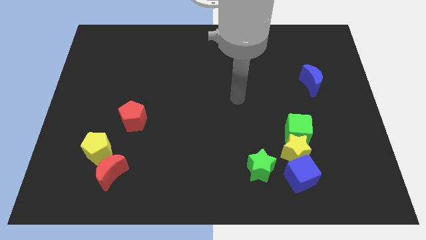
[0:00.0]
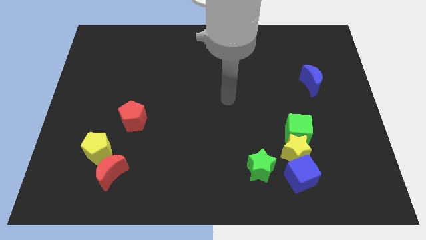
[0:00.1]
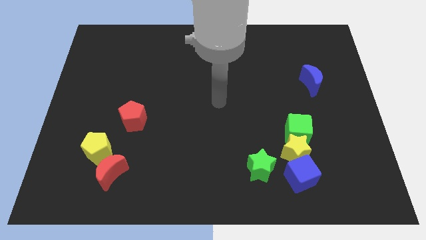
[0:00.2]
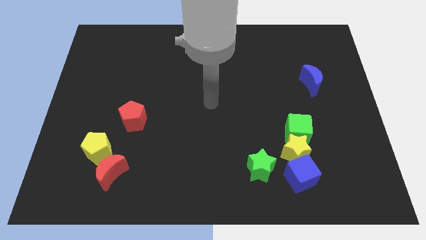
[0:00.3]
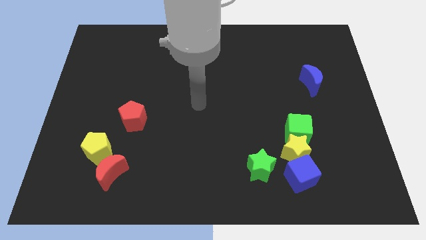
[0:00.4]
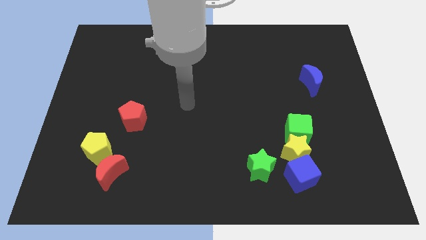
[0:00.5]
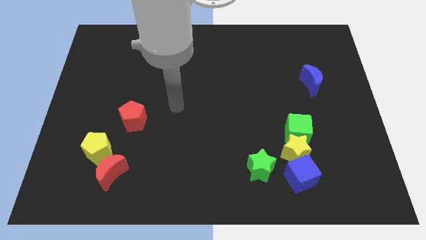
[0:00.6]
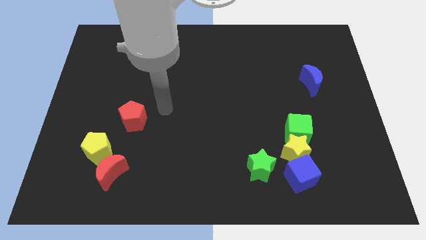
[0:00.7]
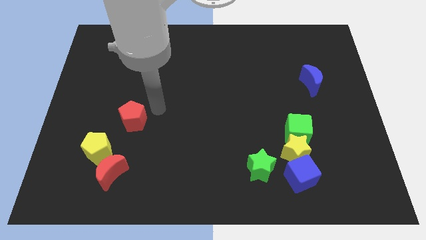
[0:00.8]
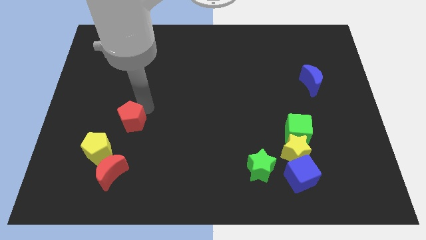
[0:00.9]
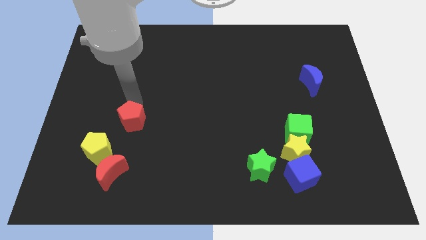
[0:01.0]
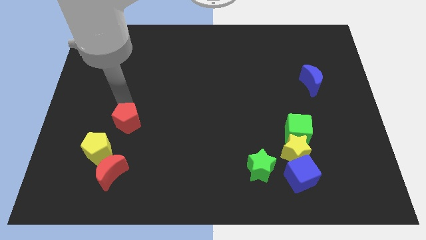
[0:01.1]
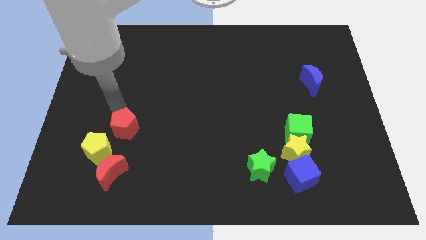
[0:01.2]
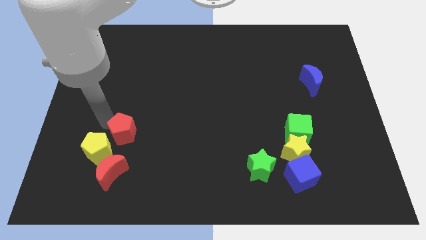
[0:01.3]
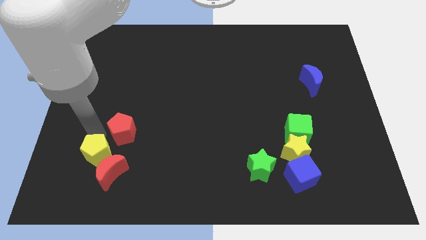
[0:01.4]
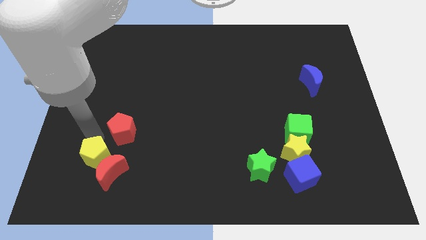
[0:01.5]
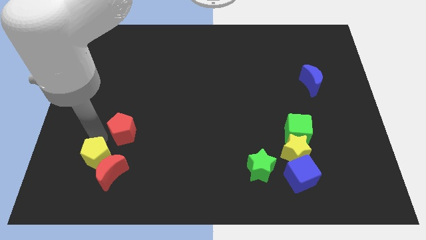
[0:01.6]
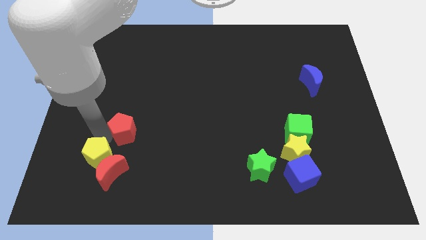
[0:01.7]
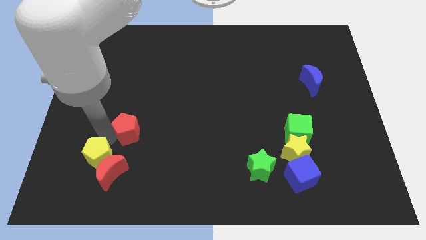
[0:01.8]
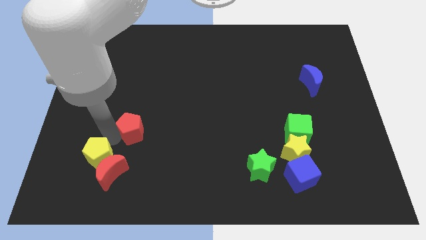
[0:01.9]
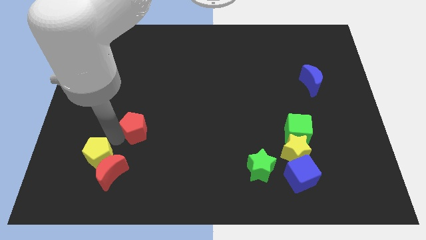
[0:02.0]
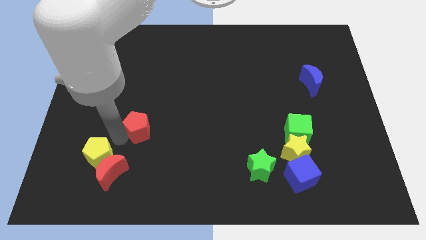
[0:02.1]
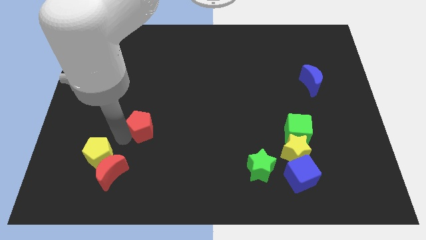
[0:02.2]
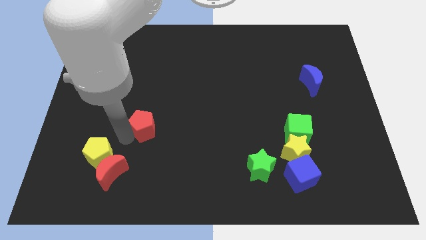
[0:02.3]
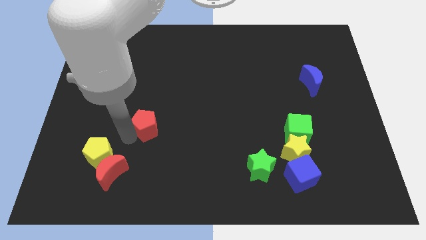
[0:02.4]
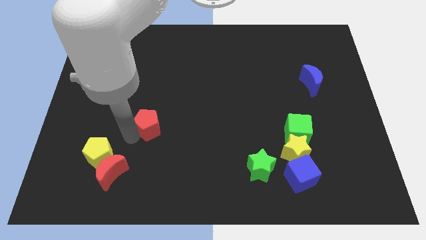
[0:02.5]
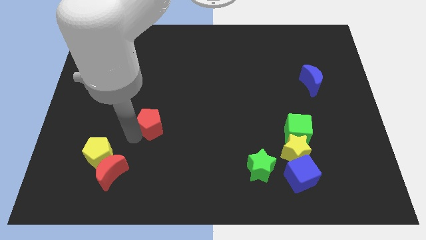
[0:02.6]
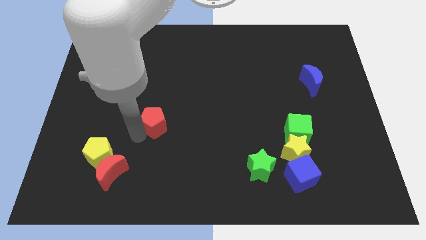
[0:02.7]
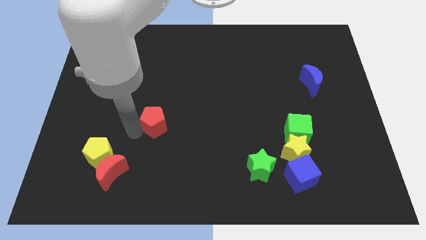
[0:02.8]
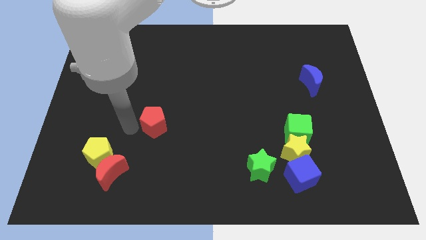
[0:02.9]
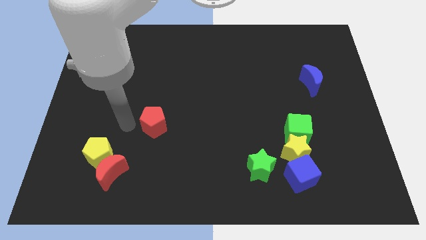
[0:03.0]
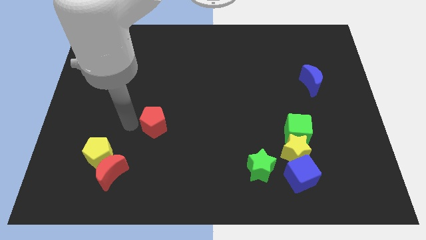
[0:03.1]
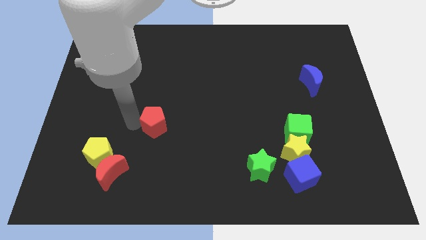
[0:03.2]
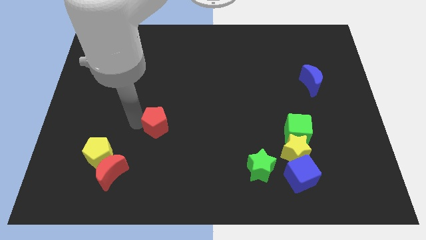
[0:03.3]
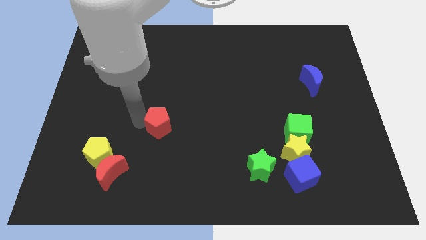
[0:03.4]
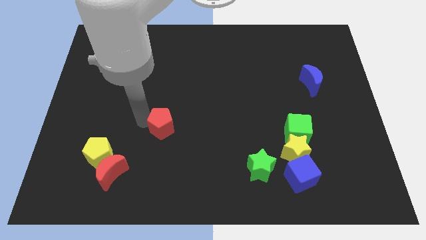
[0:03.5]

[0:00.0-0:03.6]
slide the red pentagon right somewhat

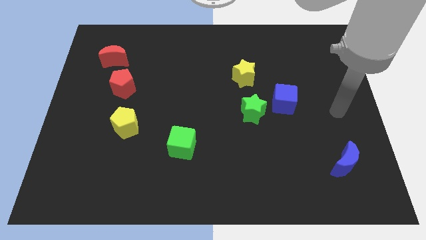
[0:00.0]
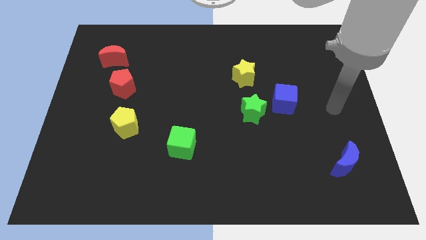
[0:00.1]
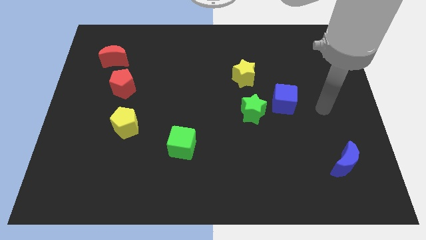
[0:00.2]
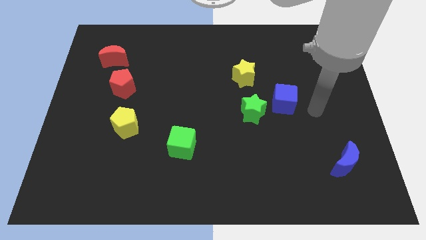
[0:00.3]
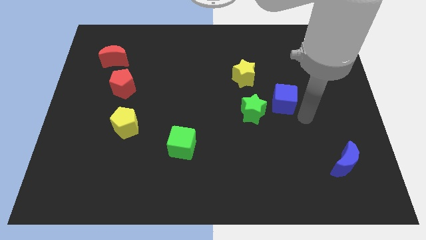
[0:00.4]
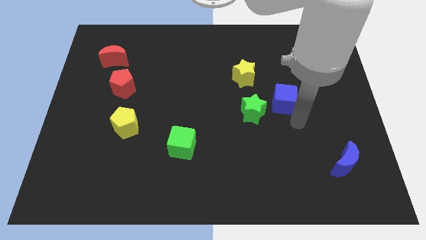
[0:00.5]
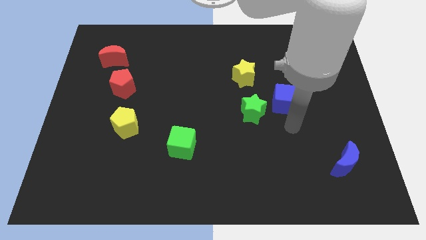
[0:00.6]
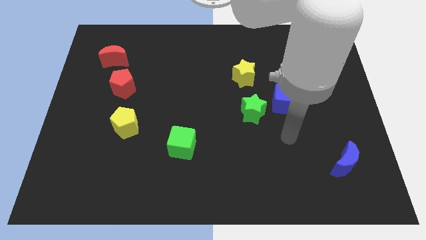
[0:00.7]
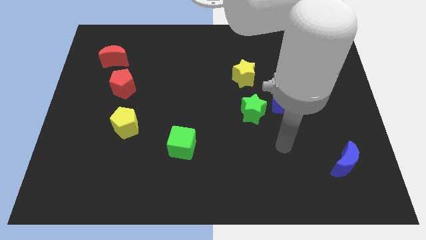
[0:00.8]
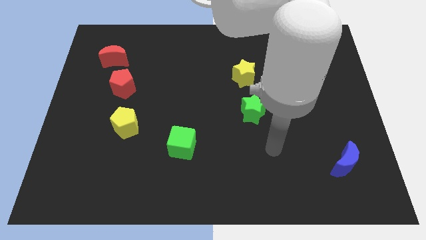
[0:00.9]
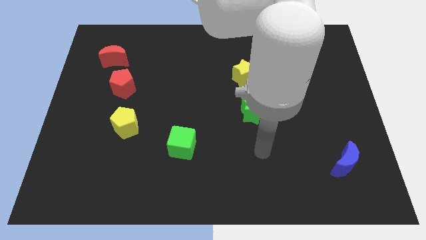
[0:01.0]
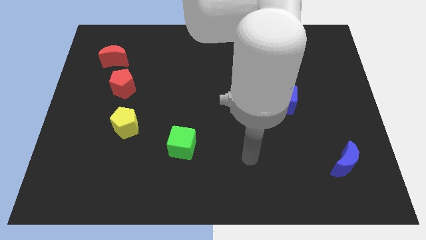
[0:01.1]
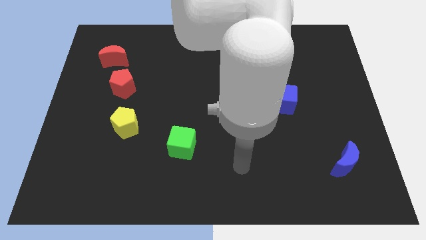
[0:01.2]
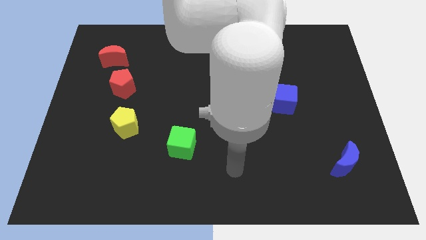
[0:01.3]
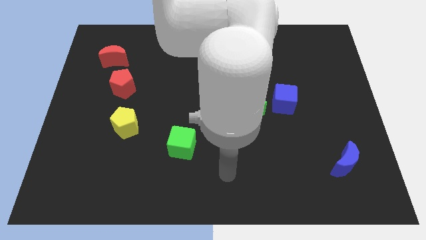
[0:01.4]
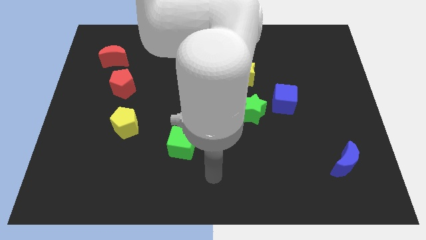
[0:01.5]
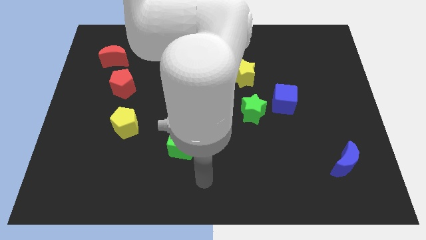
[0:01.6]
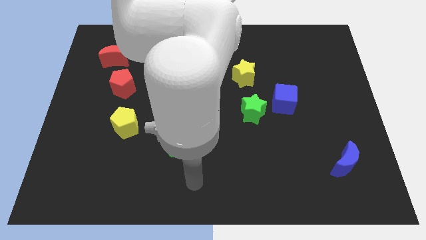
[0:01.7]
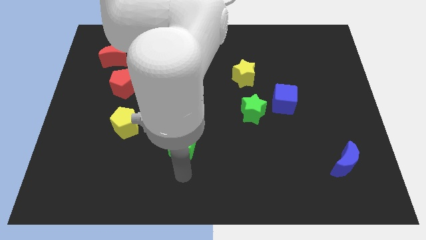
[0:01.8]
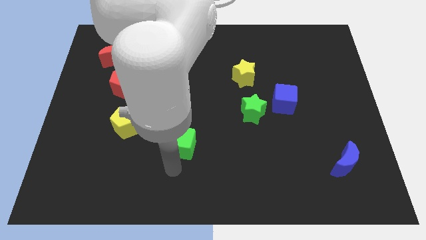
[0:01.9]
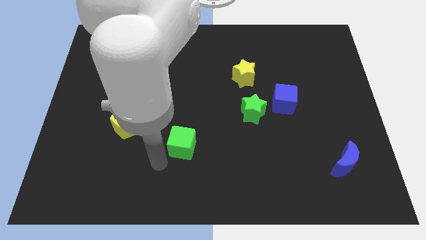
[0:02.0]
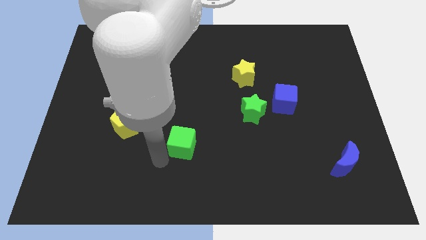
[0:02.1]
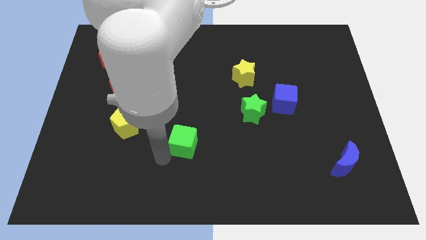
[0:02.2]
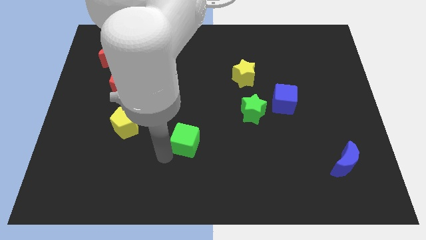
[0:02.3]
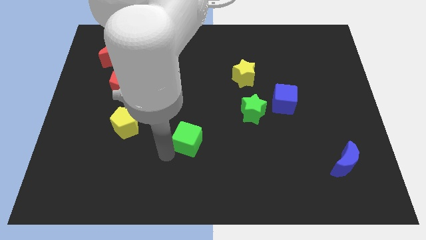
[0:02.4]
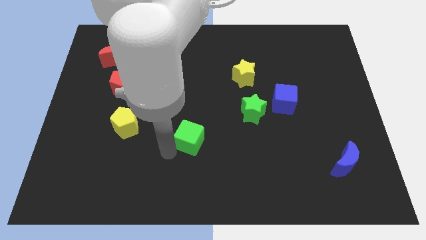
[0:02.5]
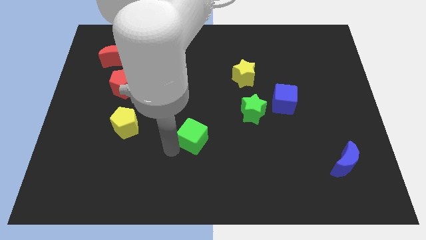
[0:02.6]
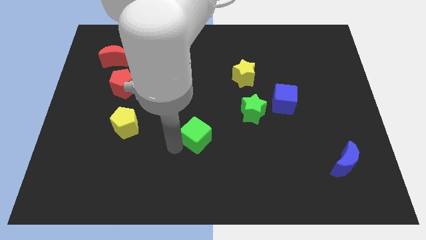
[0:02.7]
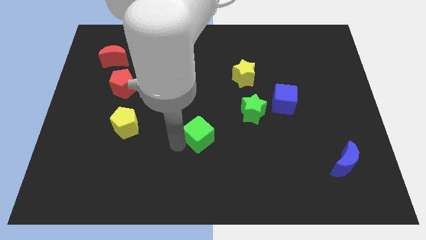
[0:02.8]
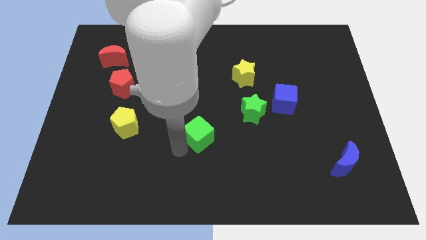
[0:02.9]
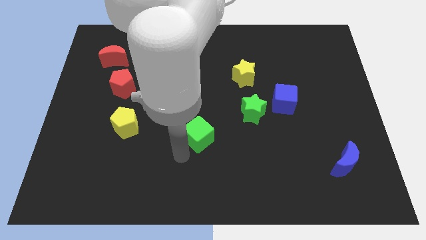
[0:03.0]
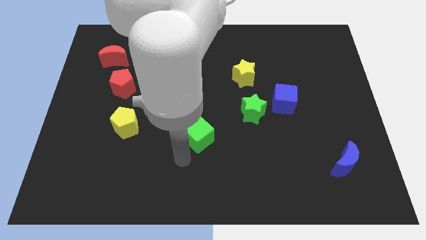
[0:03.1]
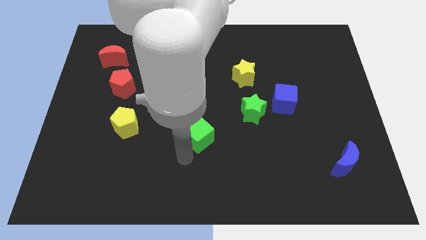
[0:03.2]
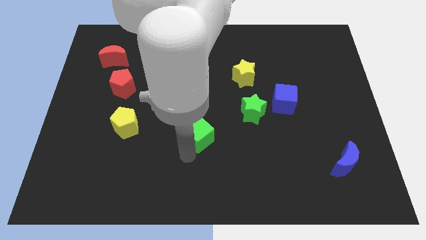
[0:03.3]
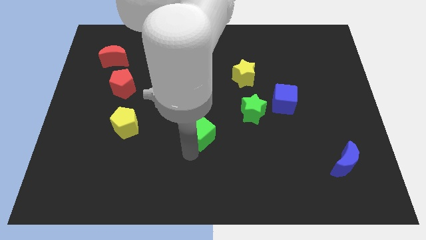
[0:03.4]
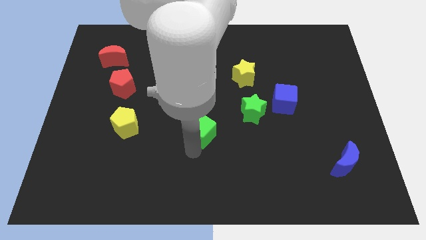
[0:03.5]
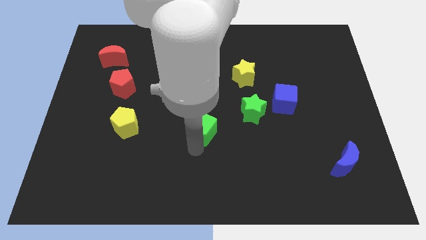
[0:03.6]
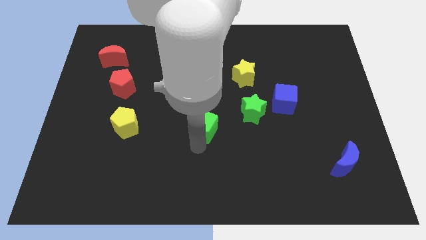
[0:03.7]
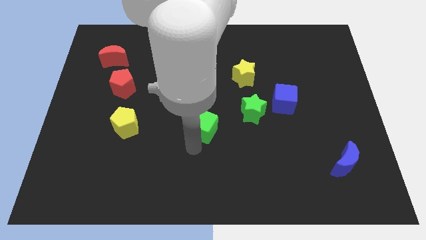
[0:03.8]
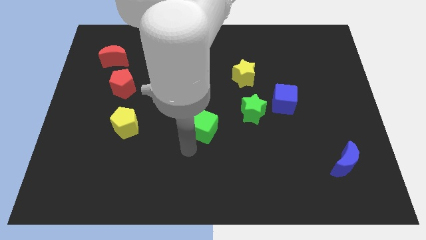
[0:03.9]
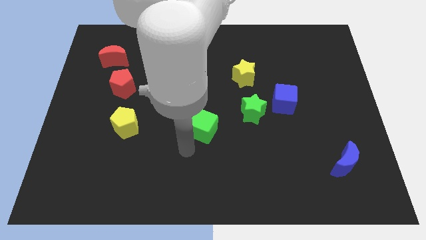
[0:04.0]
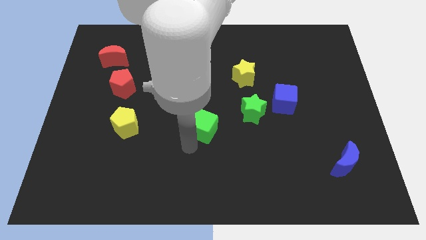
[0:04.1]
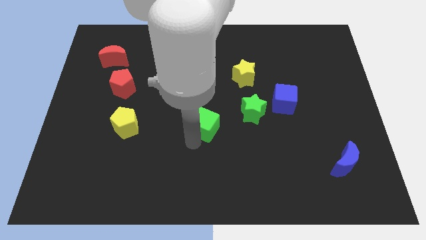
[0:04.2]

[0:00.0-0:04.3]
slightly push the green cube up and then to the right

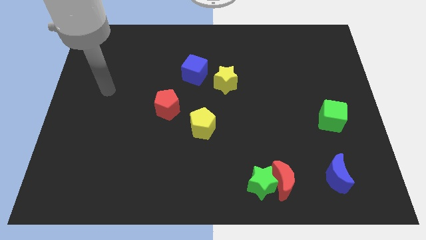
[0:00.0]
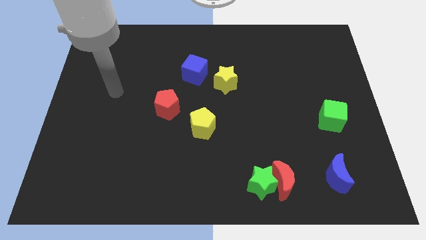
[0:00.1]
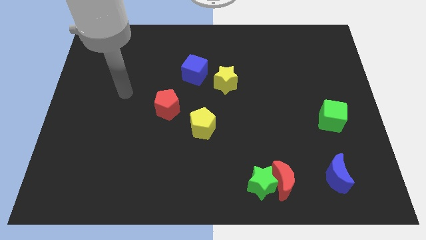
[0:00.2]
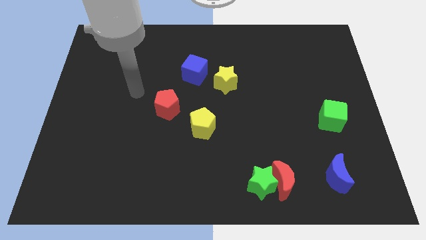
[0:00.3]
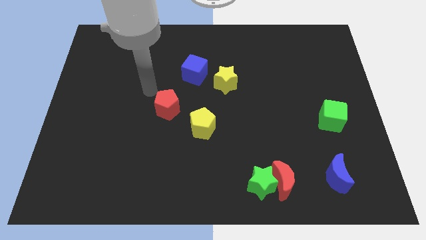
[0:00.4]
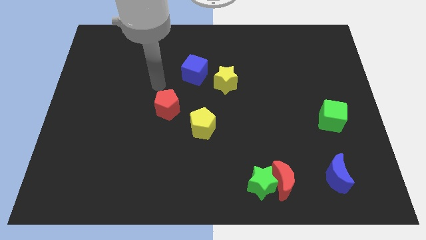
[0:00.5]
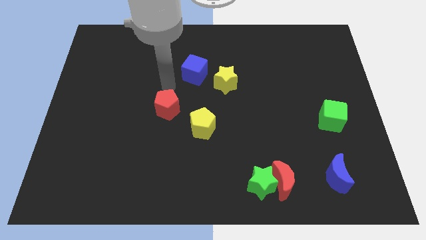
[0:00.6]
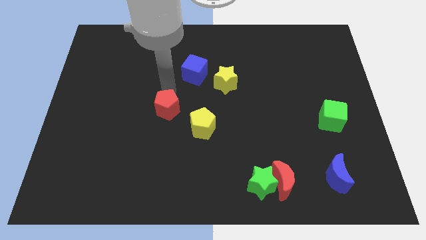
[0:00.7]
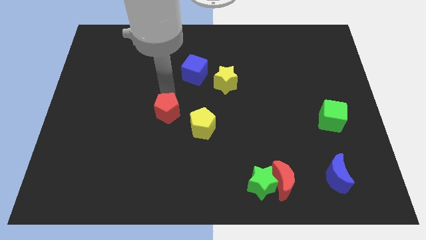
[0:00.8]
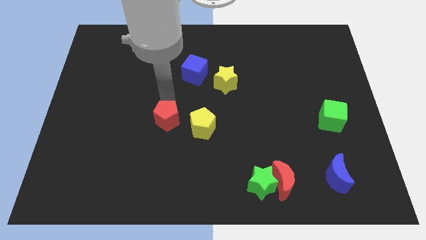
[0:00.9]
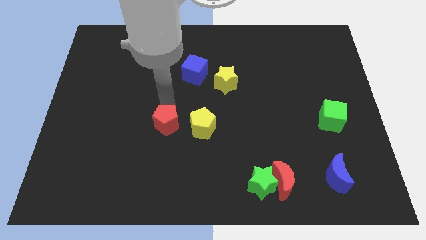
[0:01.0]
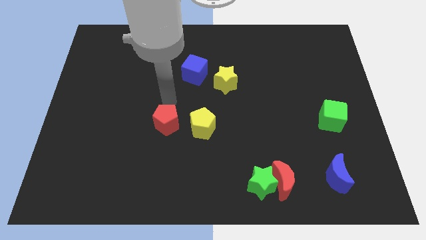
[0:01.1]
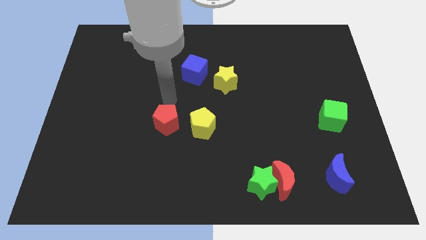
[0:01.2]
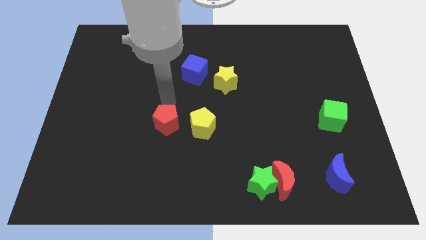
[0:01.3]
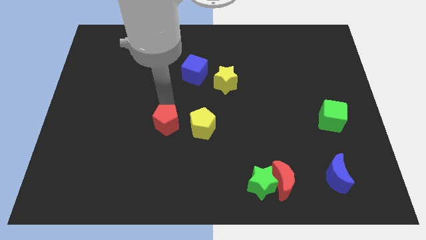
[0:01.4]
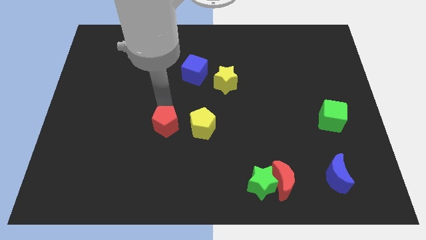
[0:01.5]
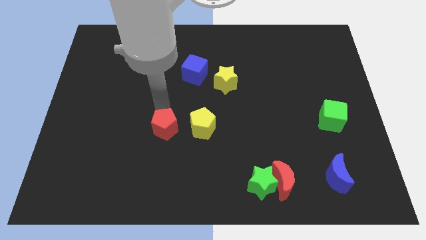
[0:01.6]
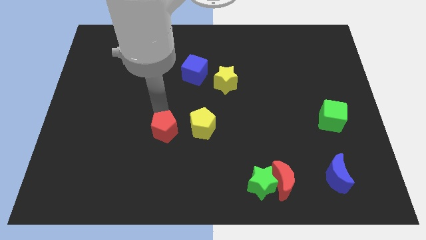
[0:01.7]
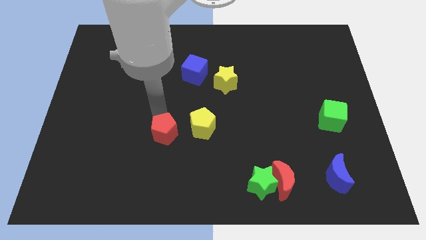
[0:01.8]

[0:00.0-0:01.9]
slightly move the red pentagon down
